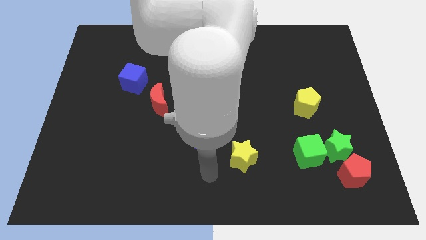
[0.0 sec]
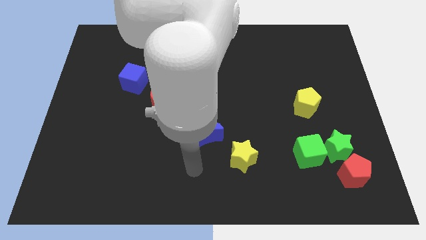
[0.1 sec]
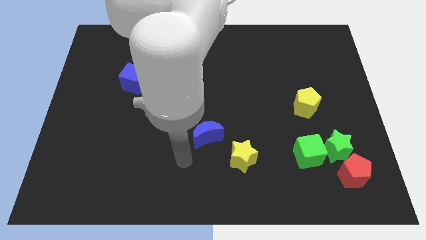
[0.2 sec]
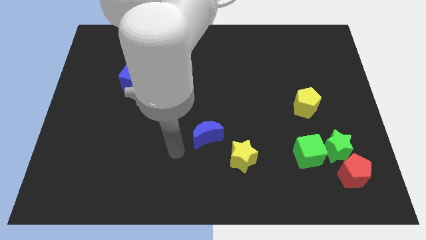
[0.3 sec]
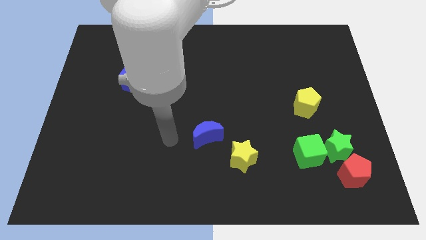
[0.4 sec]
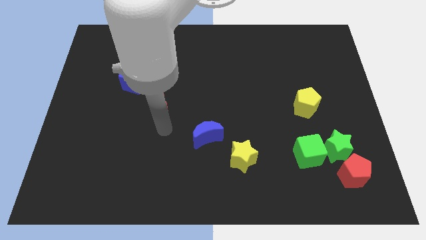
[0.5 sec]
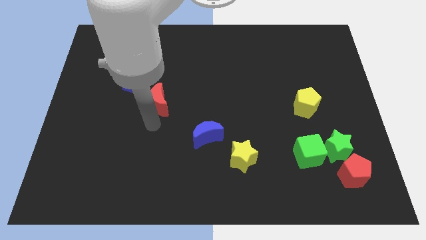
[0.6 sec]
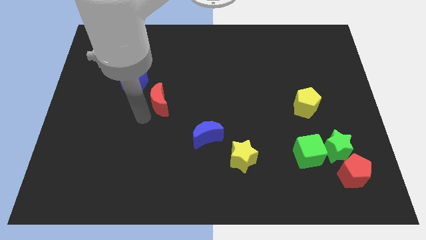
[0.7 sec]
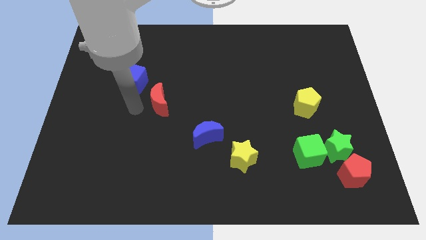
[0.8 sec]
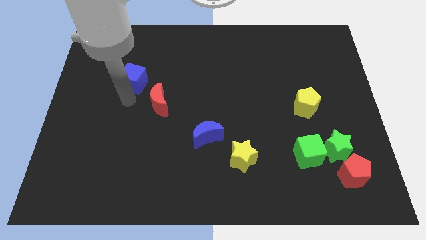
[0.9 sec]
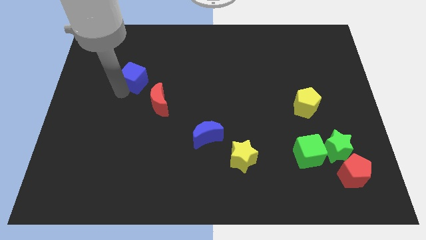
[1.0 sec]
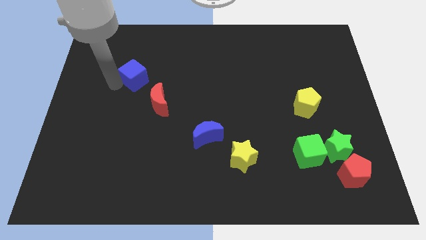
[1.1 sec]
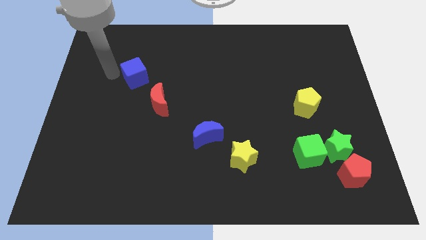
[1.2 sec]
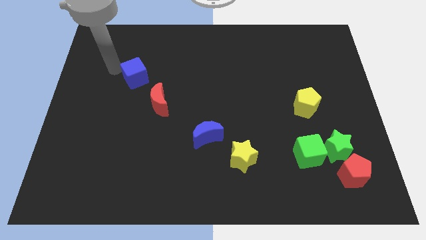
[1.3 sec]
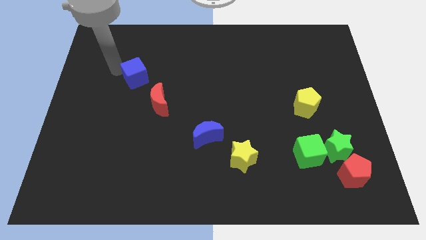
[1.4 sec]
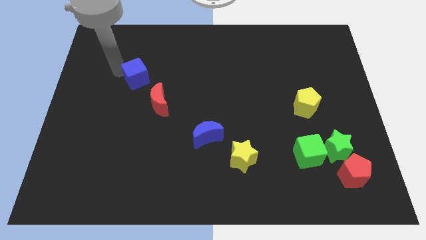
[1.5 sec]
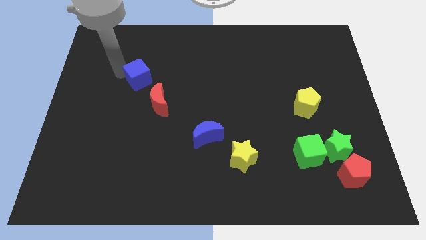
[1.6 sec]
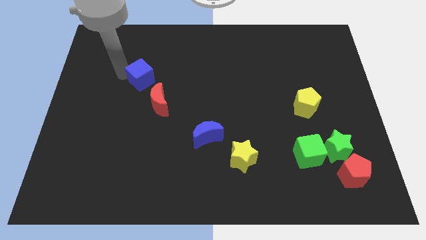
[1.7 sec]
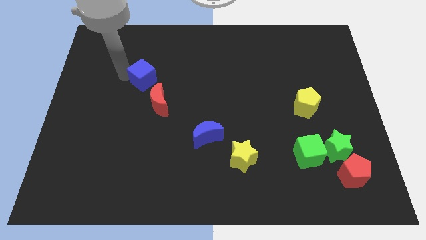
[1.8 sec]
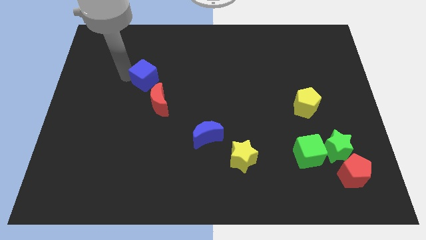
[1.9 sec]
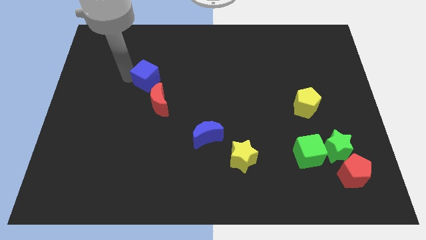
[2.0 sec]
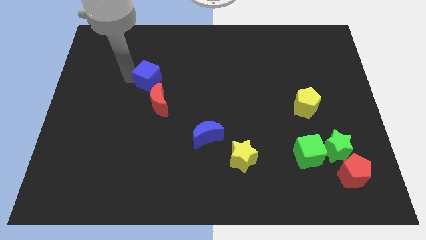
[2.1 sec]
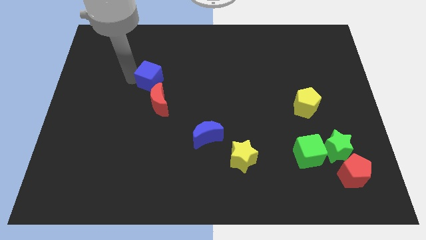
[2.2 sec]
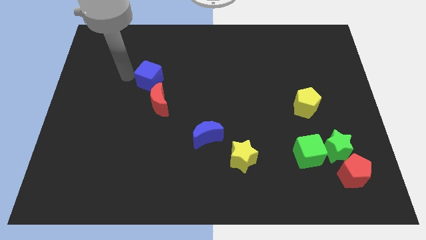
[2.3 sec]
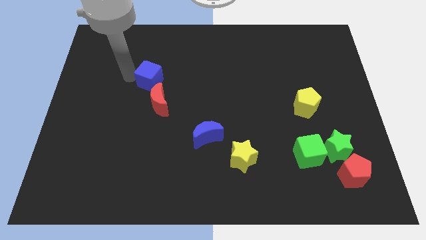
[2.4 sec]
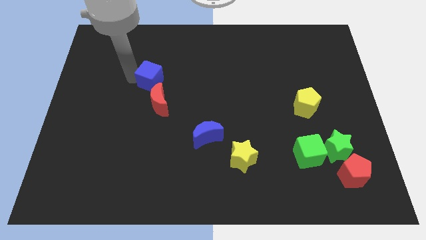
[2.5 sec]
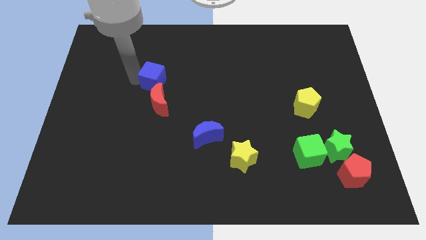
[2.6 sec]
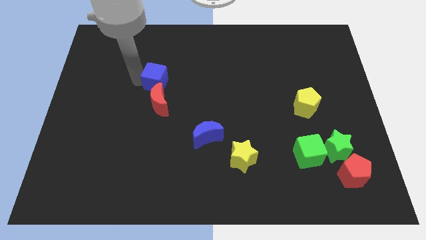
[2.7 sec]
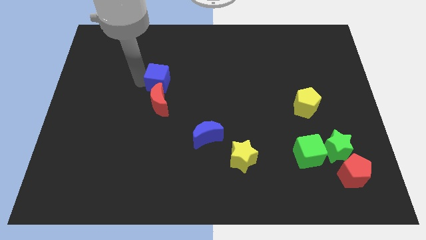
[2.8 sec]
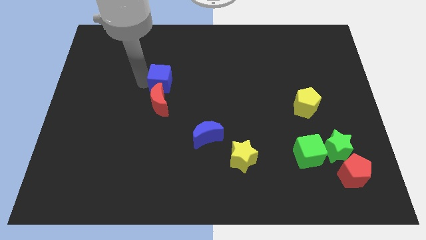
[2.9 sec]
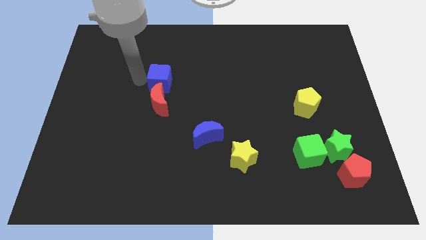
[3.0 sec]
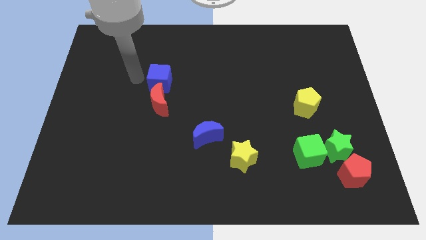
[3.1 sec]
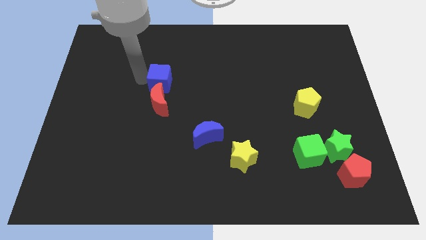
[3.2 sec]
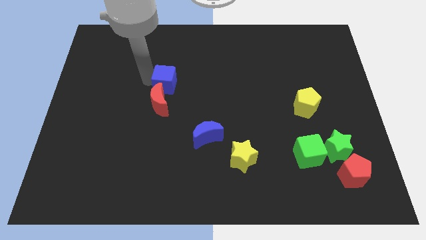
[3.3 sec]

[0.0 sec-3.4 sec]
slide the blue cube to the right a little bit

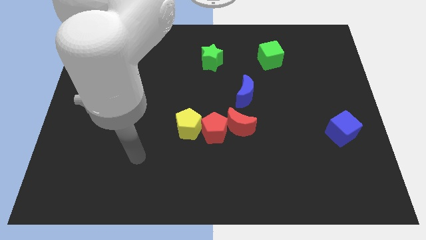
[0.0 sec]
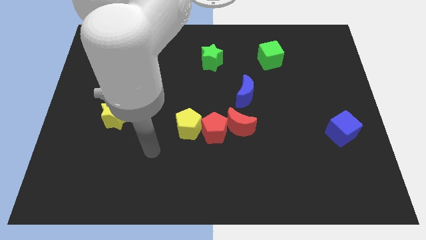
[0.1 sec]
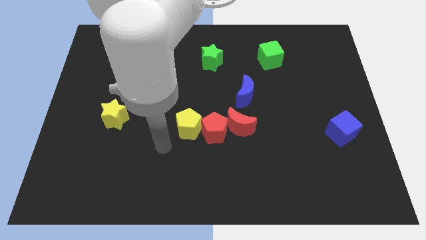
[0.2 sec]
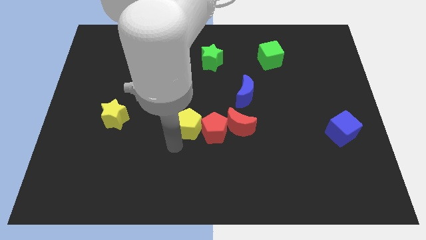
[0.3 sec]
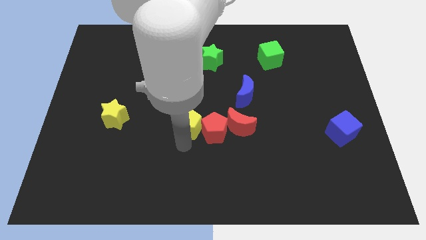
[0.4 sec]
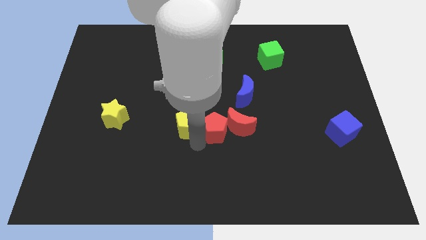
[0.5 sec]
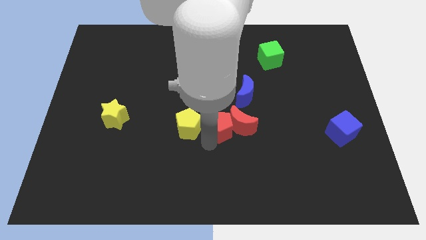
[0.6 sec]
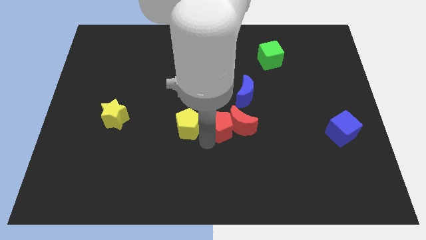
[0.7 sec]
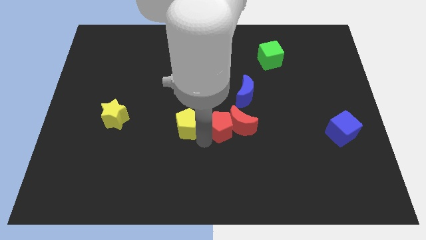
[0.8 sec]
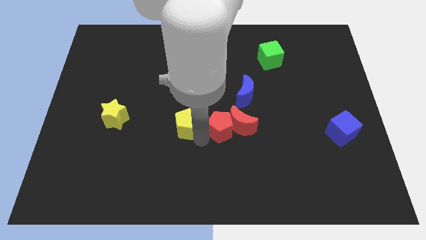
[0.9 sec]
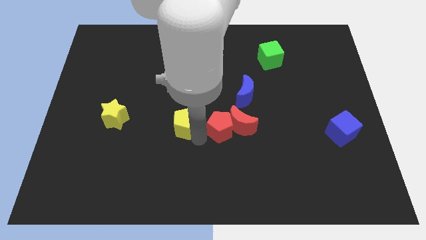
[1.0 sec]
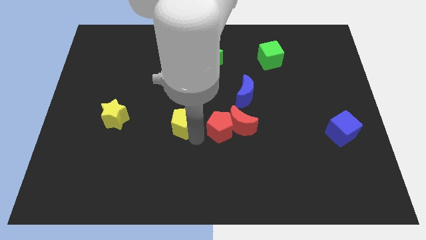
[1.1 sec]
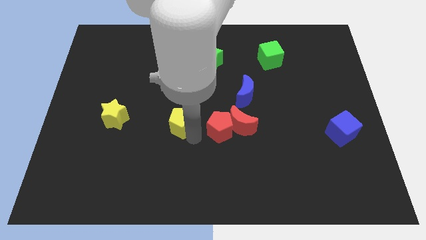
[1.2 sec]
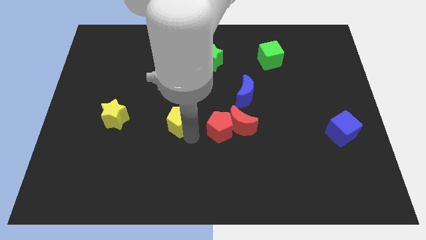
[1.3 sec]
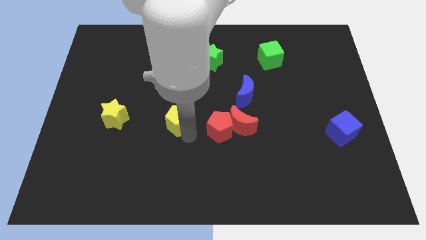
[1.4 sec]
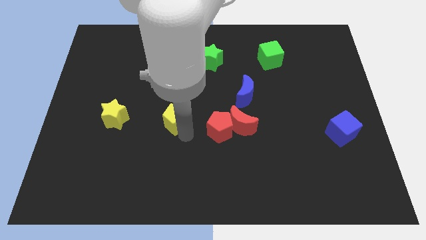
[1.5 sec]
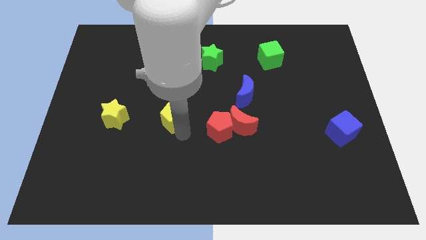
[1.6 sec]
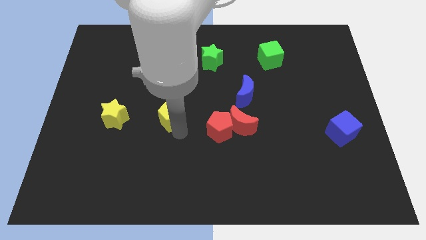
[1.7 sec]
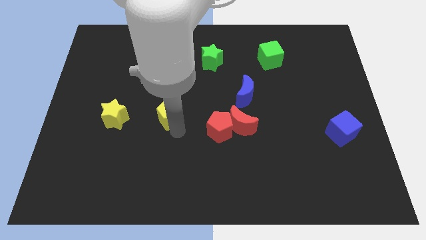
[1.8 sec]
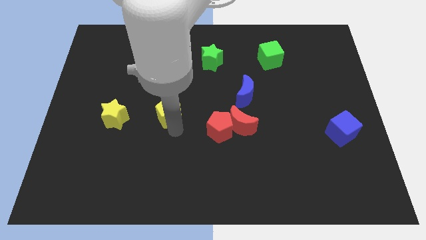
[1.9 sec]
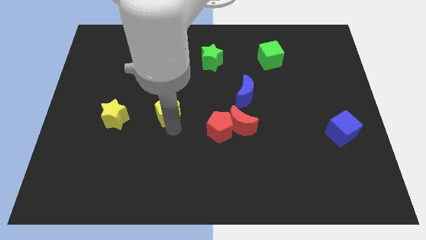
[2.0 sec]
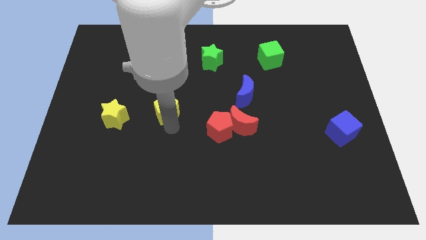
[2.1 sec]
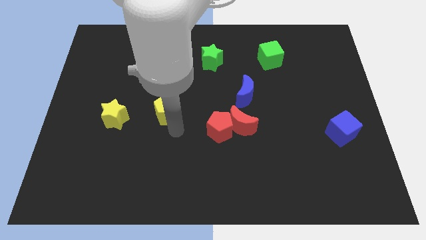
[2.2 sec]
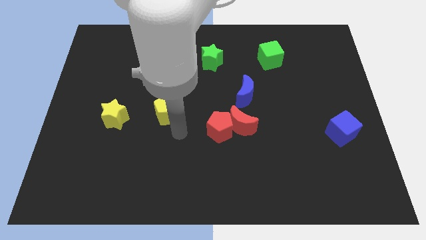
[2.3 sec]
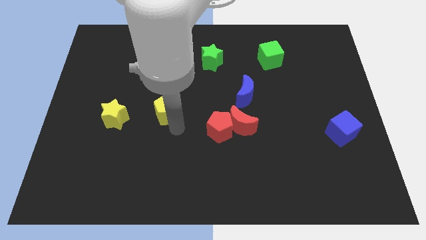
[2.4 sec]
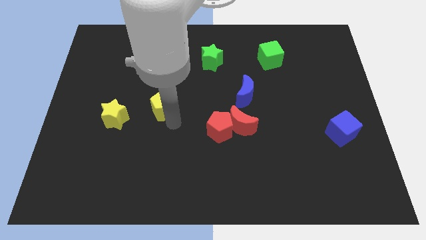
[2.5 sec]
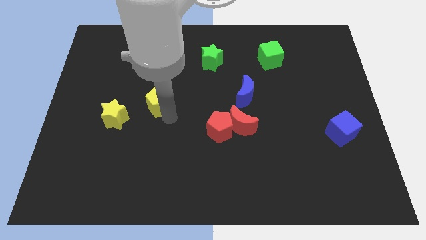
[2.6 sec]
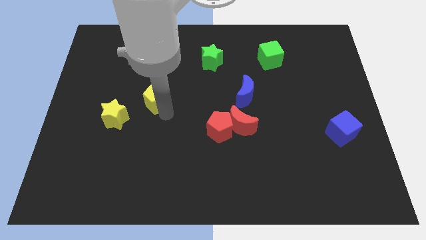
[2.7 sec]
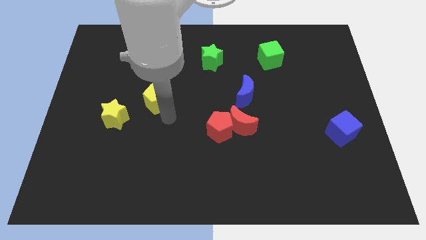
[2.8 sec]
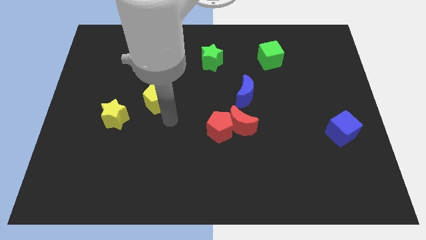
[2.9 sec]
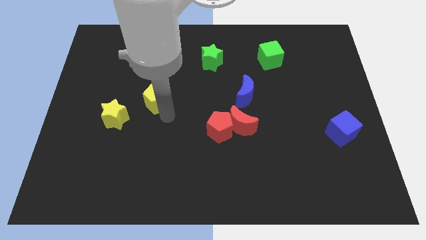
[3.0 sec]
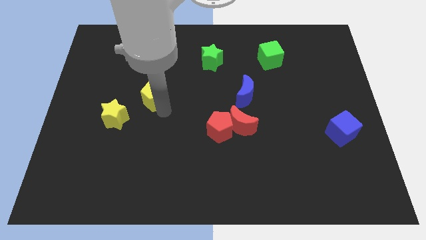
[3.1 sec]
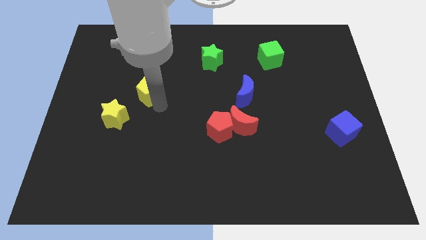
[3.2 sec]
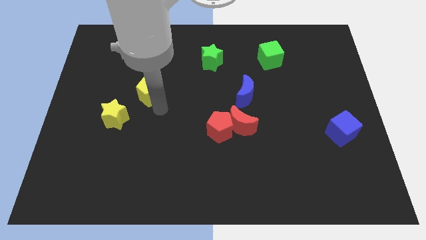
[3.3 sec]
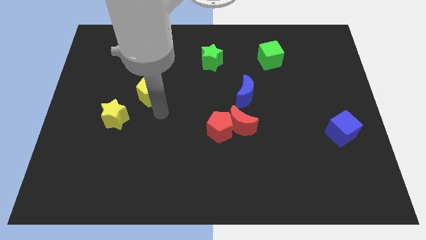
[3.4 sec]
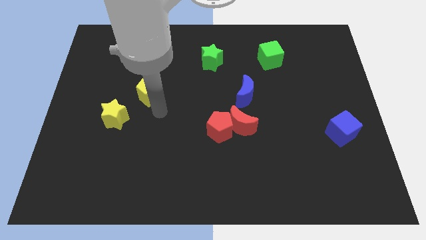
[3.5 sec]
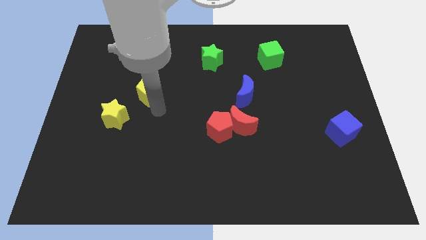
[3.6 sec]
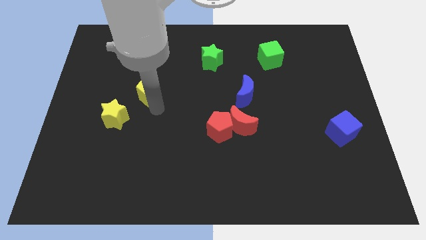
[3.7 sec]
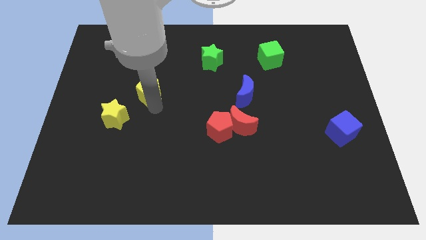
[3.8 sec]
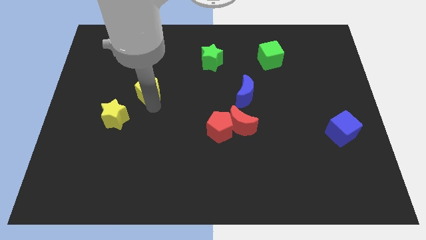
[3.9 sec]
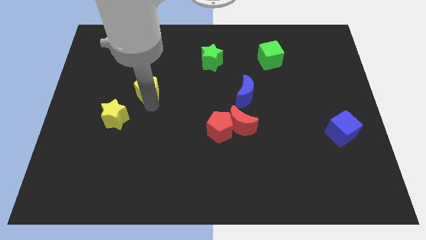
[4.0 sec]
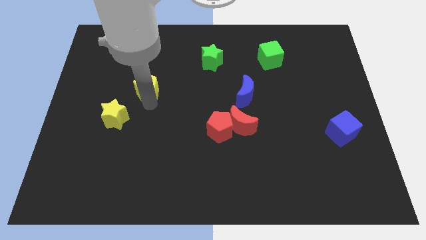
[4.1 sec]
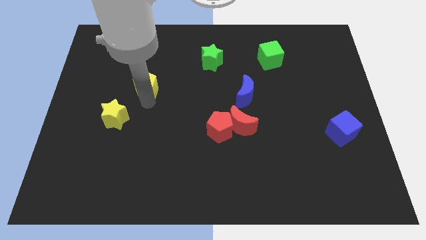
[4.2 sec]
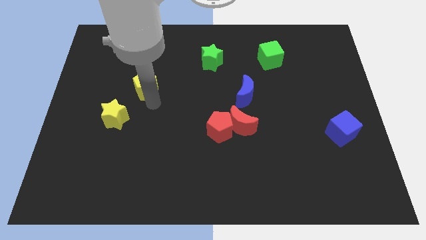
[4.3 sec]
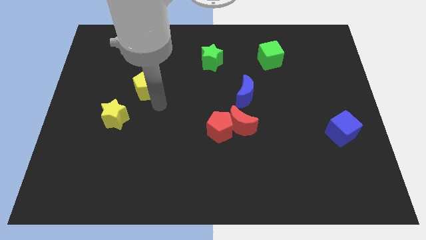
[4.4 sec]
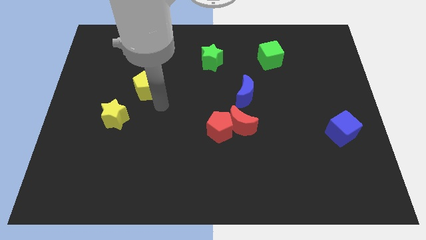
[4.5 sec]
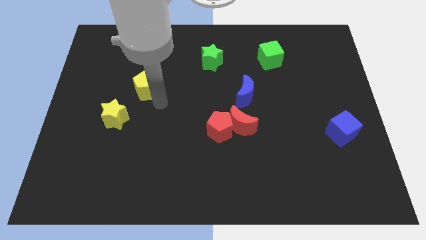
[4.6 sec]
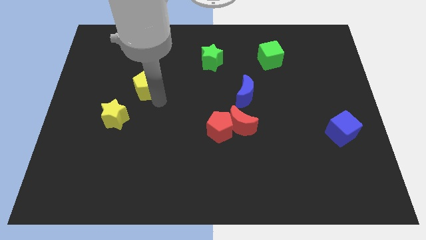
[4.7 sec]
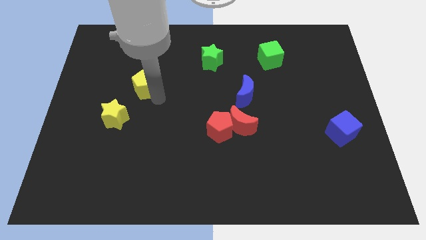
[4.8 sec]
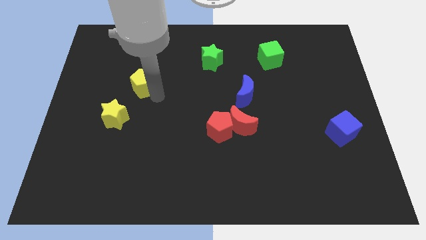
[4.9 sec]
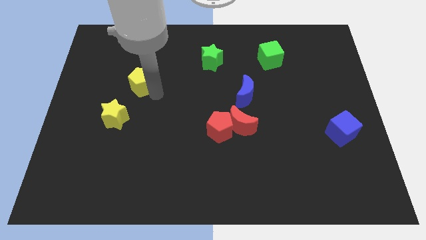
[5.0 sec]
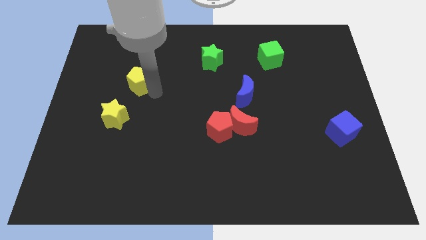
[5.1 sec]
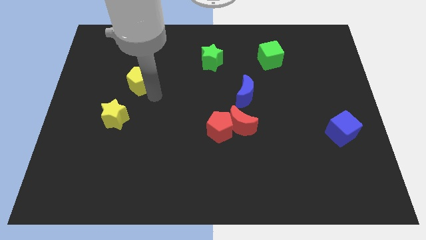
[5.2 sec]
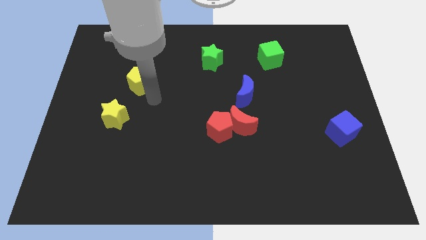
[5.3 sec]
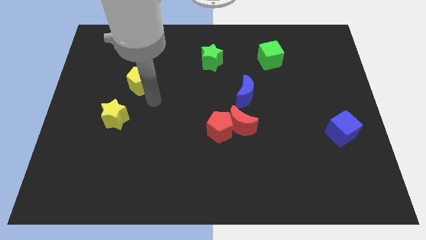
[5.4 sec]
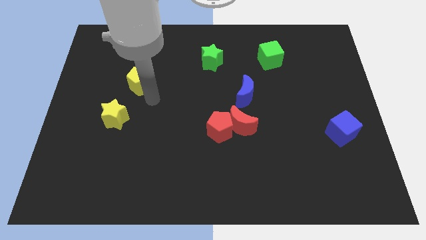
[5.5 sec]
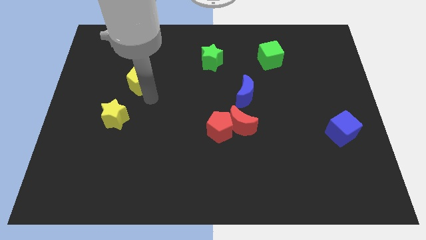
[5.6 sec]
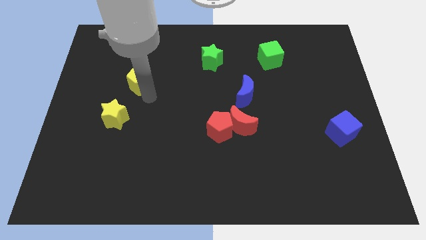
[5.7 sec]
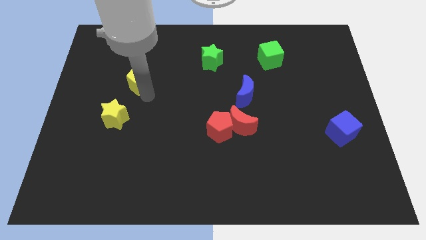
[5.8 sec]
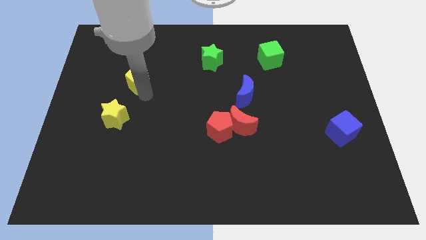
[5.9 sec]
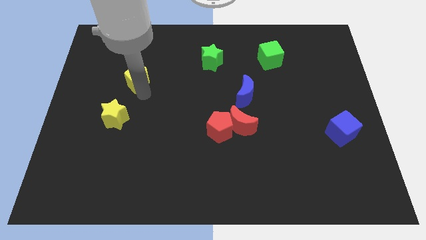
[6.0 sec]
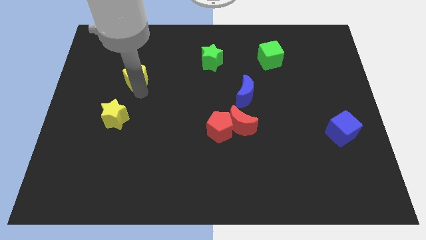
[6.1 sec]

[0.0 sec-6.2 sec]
move the yellow pentagon upwards and to the left
